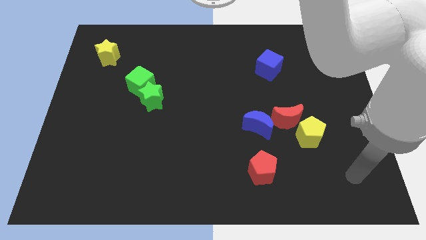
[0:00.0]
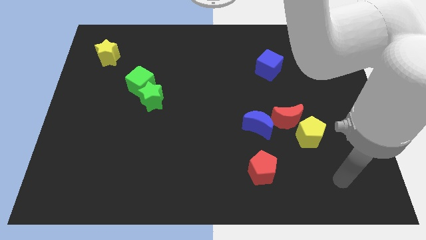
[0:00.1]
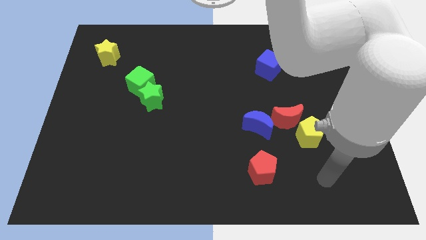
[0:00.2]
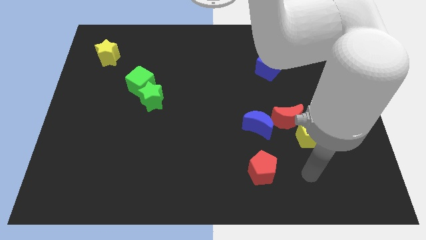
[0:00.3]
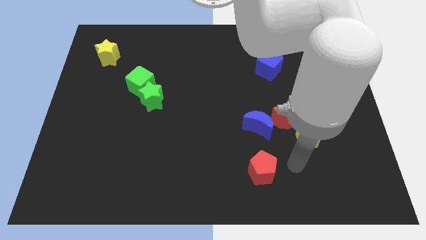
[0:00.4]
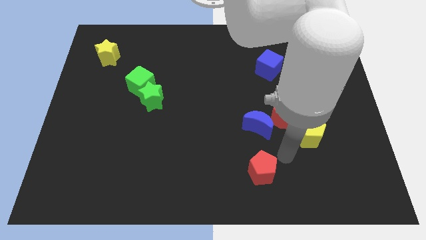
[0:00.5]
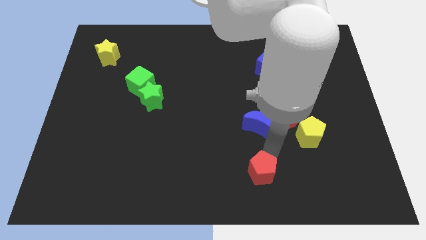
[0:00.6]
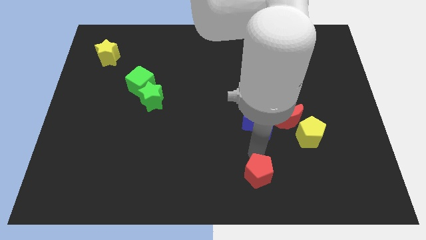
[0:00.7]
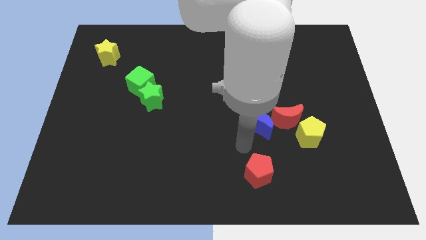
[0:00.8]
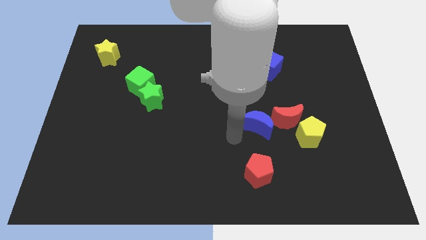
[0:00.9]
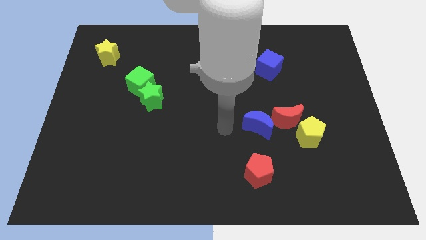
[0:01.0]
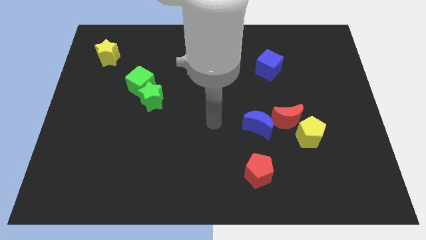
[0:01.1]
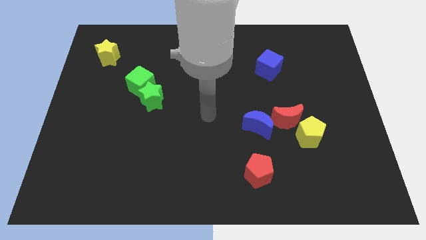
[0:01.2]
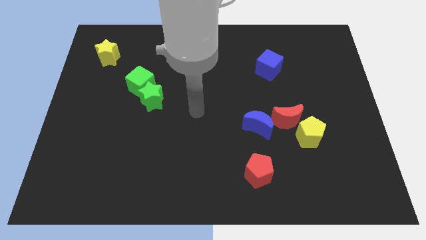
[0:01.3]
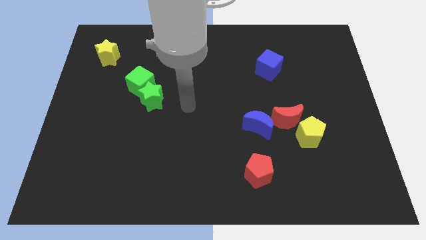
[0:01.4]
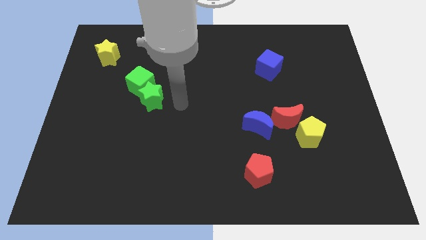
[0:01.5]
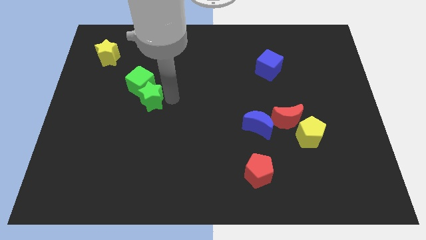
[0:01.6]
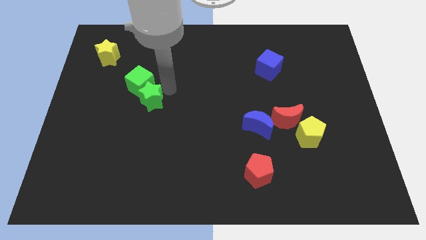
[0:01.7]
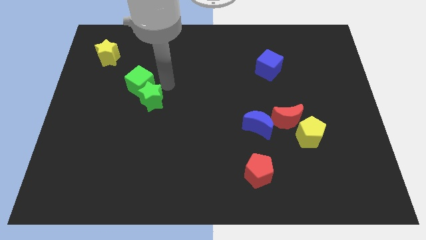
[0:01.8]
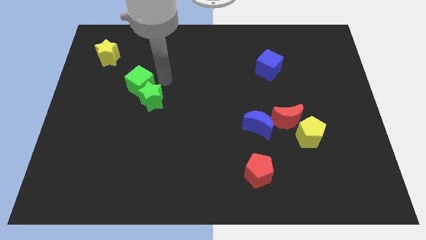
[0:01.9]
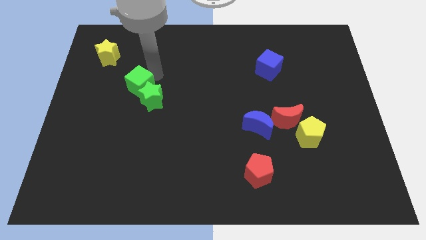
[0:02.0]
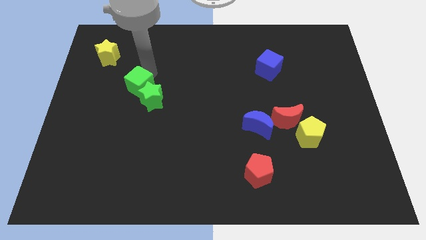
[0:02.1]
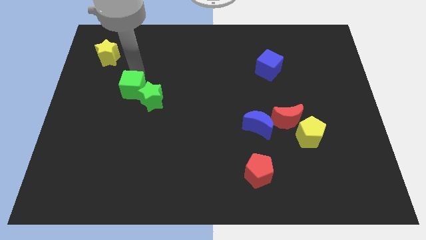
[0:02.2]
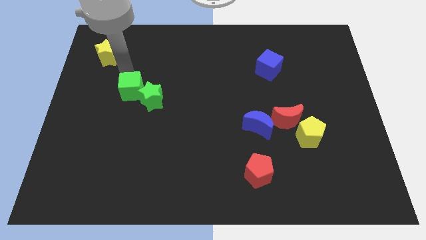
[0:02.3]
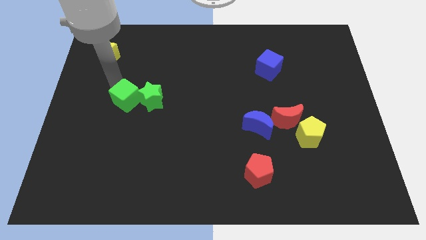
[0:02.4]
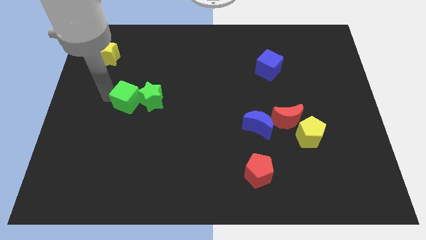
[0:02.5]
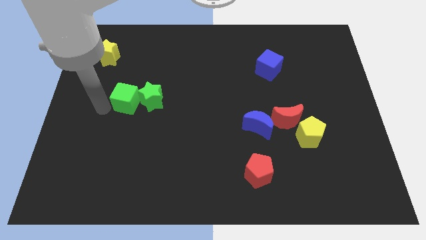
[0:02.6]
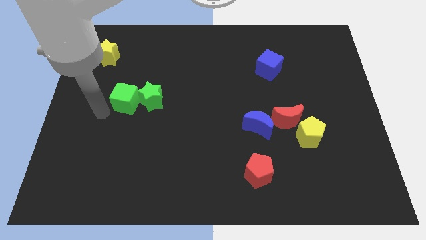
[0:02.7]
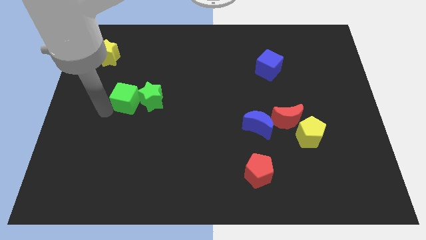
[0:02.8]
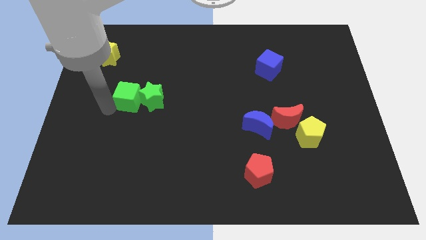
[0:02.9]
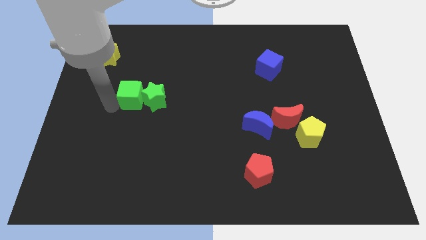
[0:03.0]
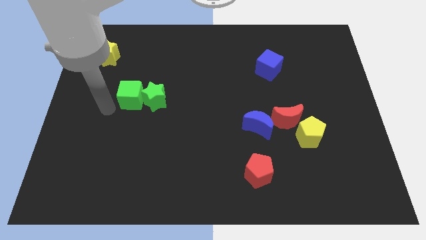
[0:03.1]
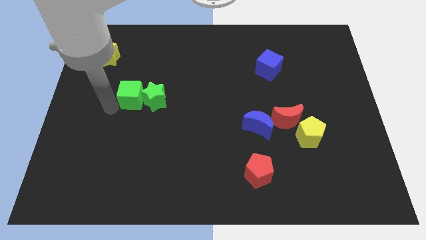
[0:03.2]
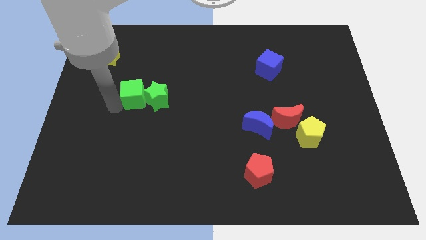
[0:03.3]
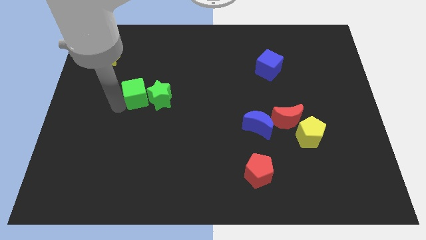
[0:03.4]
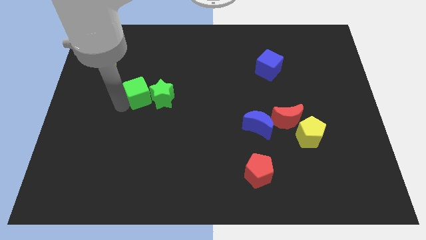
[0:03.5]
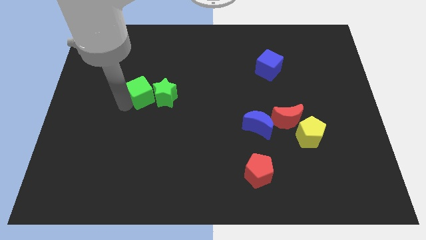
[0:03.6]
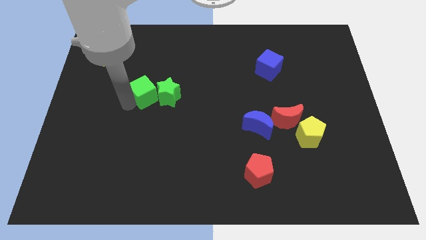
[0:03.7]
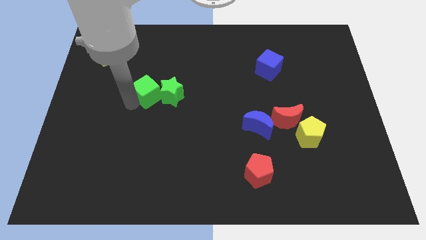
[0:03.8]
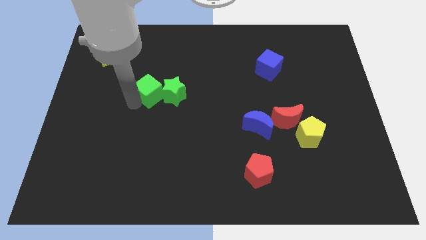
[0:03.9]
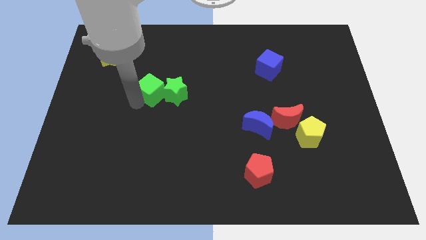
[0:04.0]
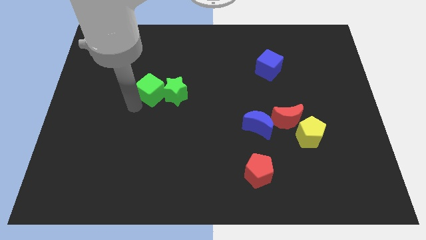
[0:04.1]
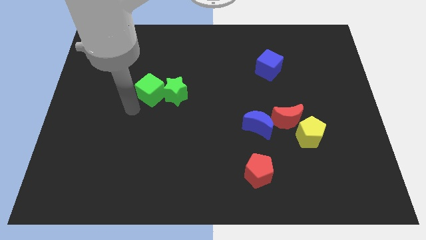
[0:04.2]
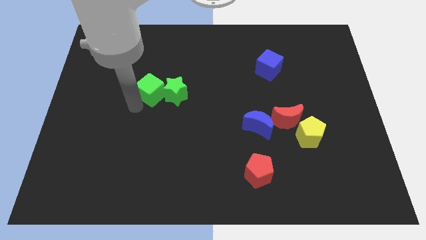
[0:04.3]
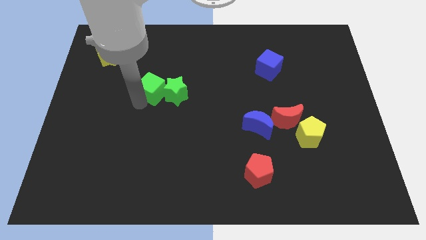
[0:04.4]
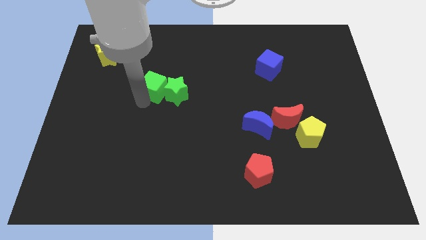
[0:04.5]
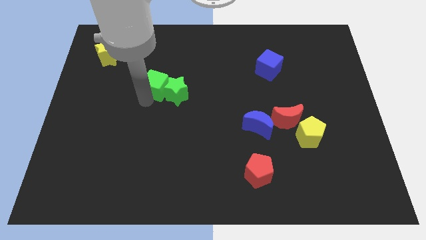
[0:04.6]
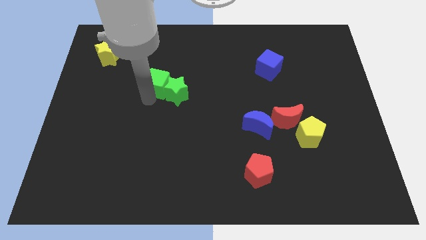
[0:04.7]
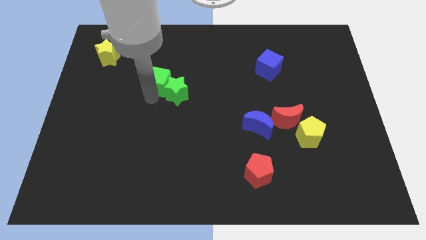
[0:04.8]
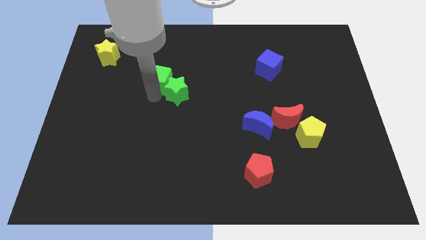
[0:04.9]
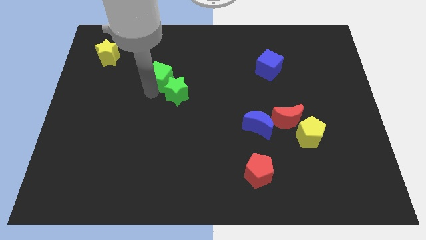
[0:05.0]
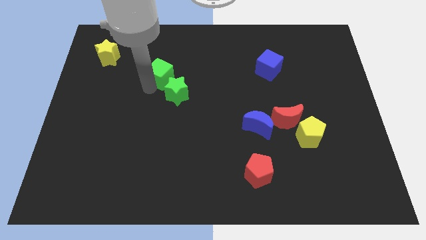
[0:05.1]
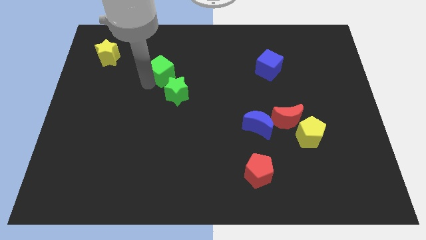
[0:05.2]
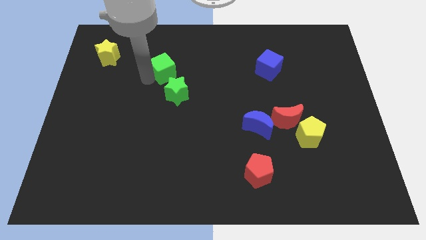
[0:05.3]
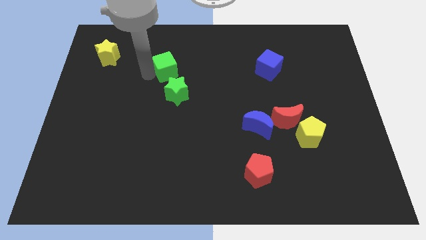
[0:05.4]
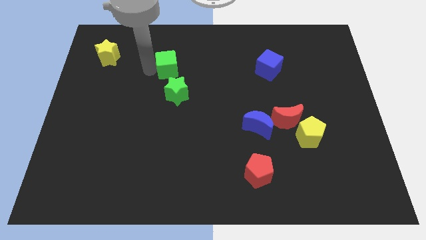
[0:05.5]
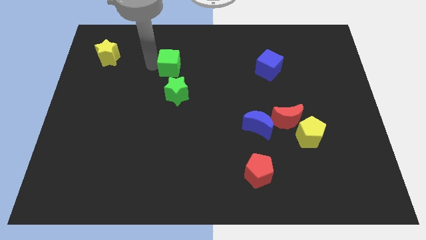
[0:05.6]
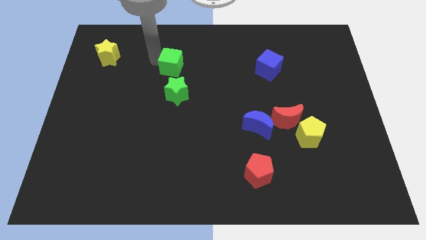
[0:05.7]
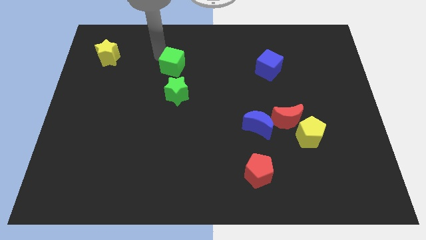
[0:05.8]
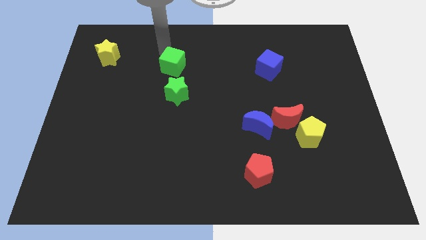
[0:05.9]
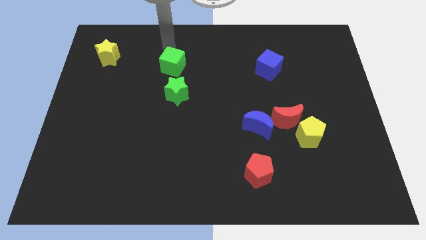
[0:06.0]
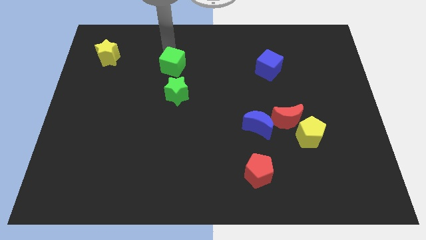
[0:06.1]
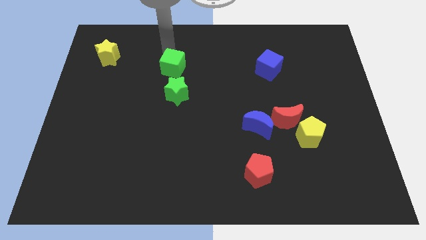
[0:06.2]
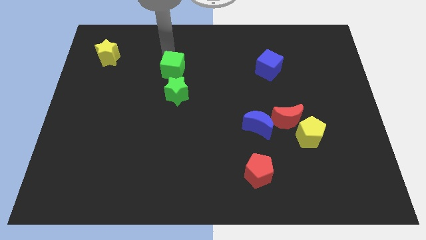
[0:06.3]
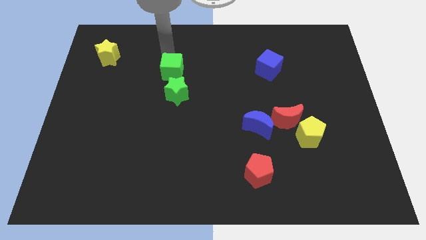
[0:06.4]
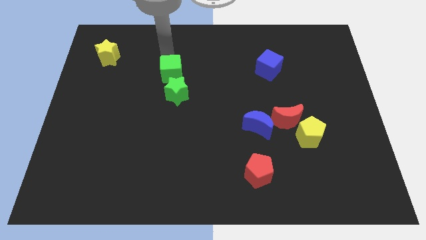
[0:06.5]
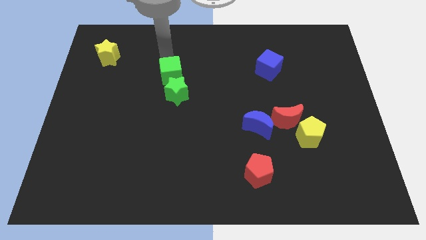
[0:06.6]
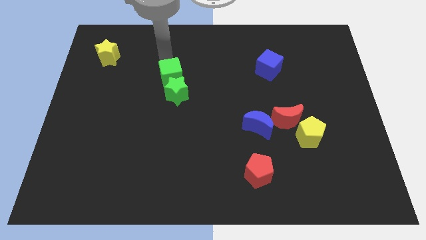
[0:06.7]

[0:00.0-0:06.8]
slightly move the green cube right

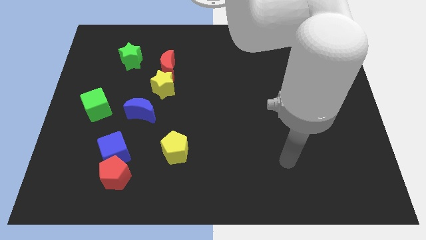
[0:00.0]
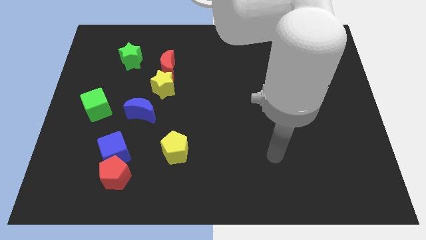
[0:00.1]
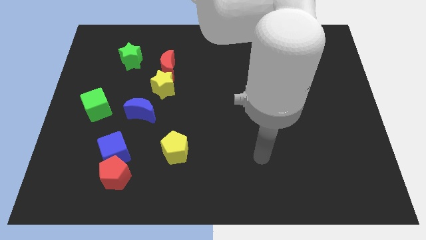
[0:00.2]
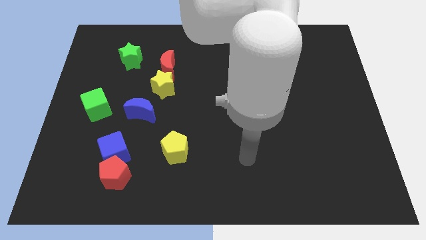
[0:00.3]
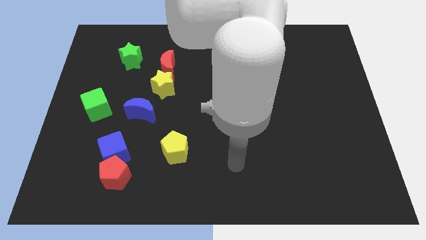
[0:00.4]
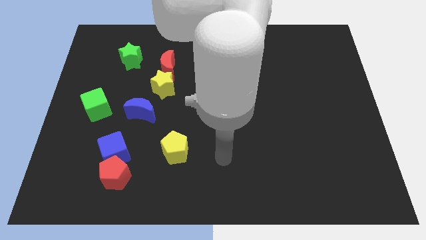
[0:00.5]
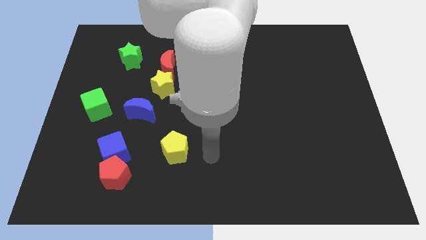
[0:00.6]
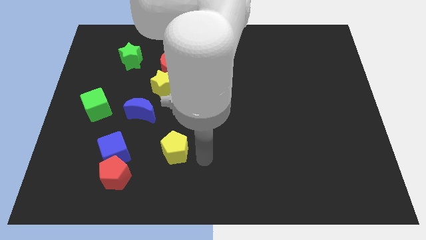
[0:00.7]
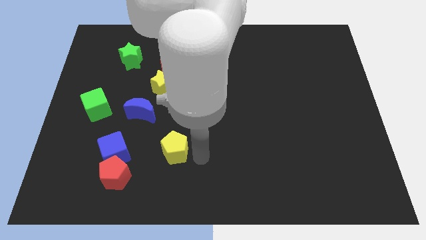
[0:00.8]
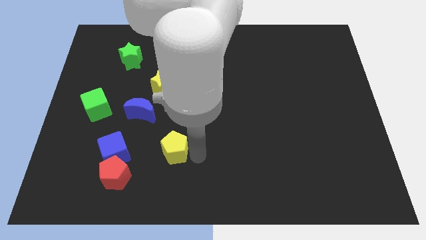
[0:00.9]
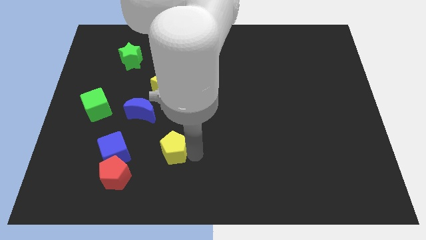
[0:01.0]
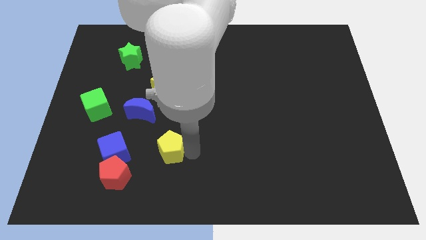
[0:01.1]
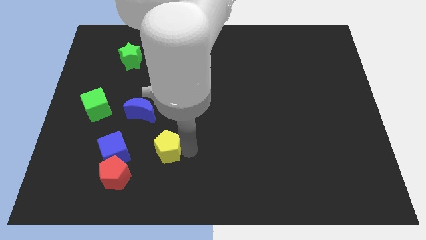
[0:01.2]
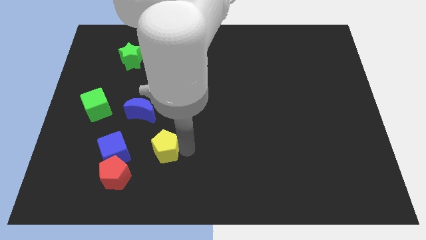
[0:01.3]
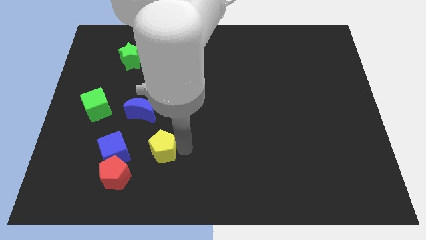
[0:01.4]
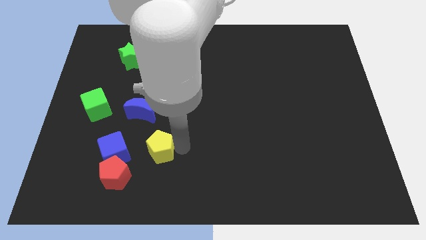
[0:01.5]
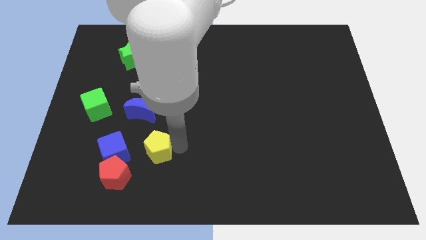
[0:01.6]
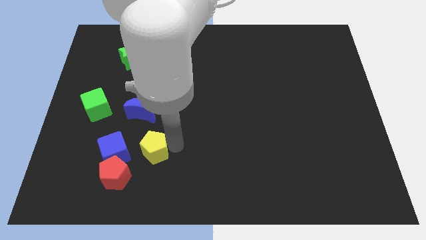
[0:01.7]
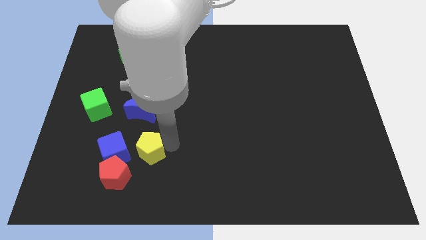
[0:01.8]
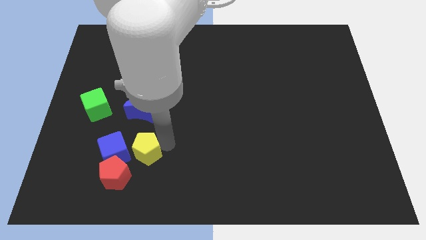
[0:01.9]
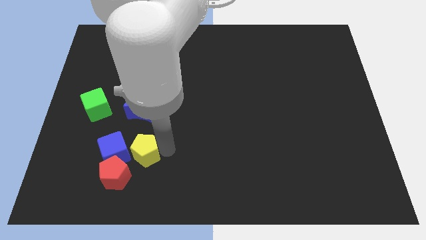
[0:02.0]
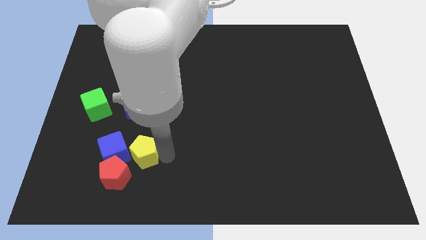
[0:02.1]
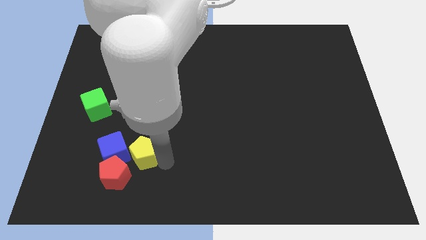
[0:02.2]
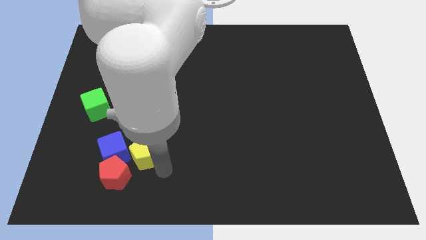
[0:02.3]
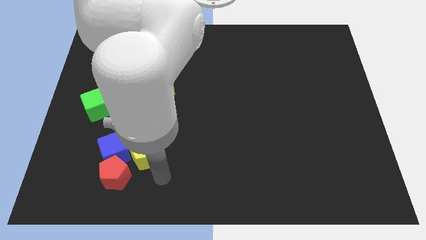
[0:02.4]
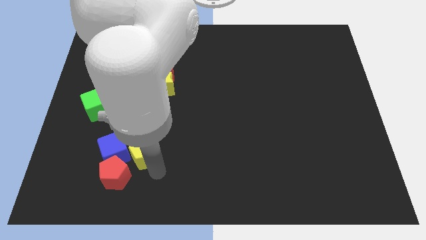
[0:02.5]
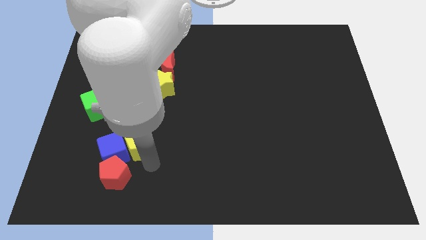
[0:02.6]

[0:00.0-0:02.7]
slide the yellow pentagon left somewhat
